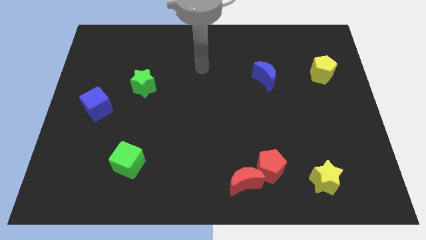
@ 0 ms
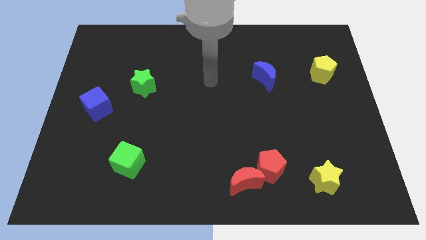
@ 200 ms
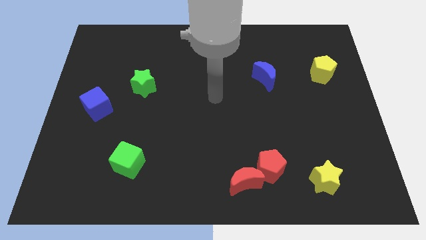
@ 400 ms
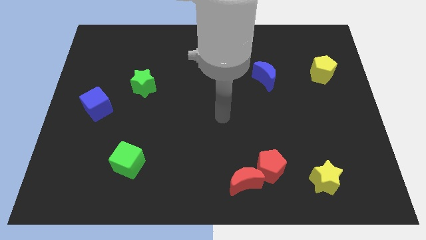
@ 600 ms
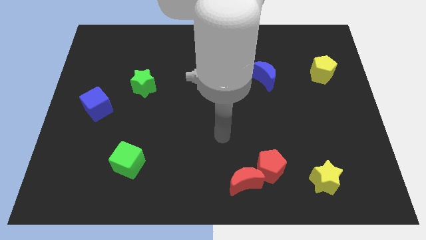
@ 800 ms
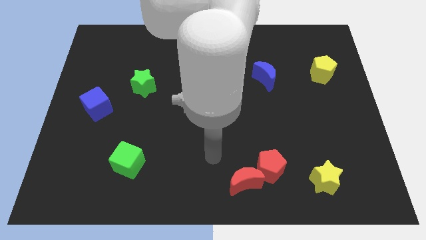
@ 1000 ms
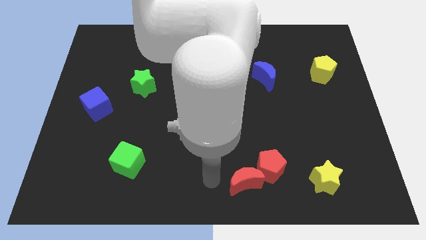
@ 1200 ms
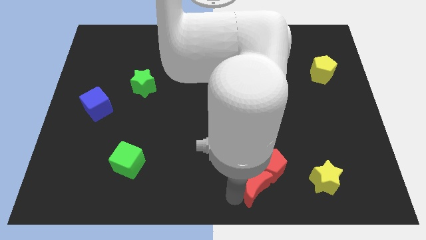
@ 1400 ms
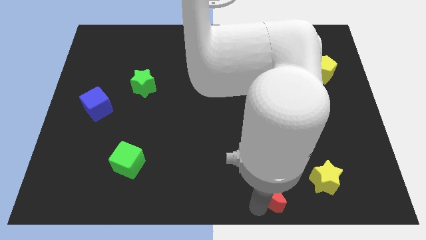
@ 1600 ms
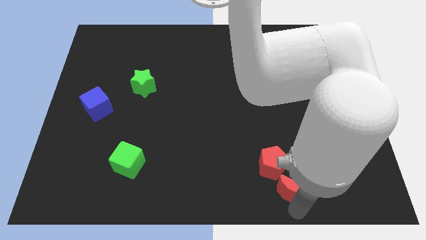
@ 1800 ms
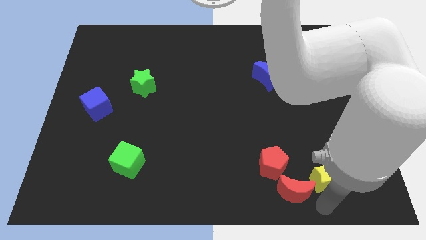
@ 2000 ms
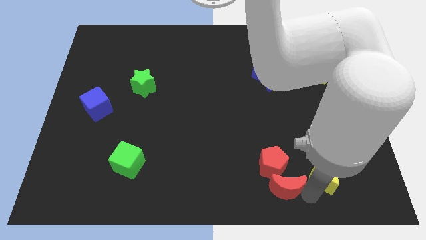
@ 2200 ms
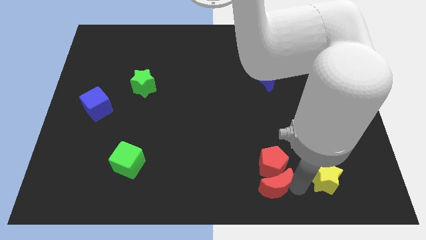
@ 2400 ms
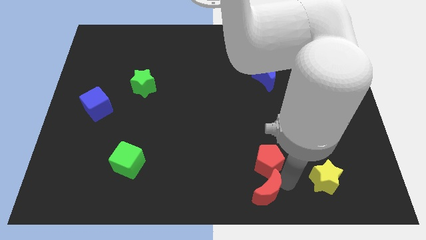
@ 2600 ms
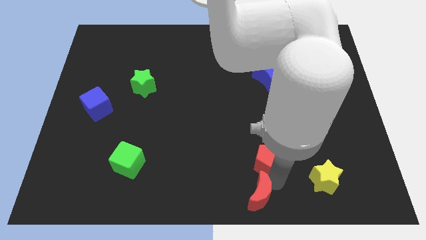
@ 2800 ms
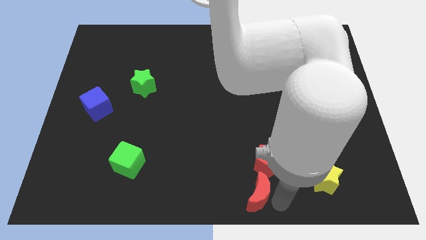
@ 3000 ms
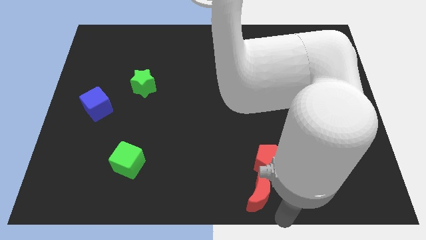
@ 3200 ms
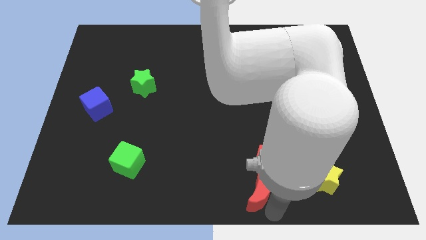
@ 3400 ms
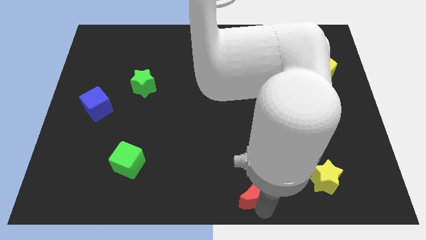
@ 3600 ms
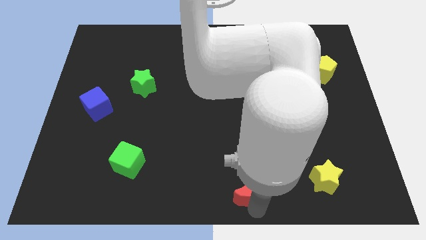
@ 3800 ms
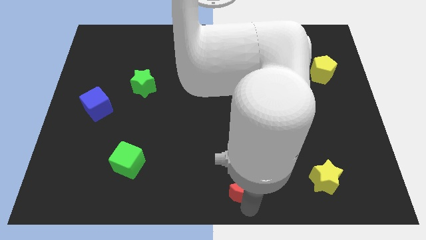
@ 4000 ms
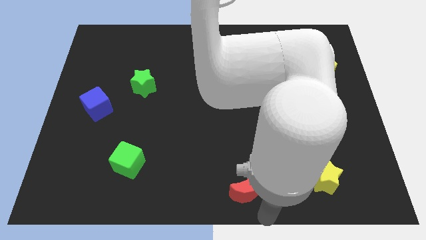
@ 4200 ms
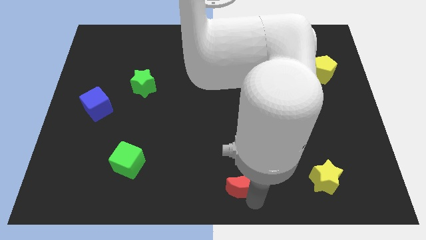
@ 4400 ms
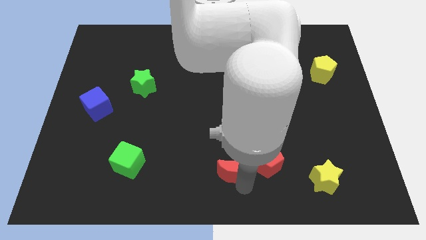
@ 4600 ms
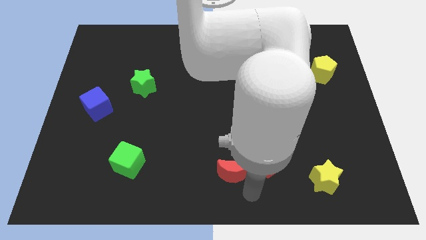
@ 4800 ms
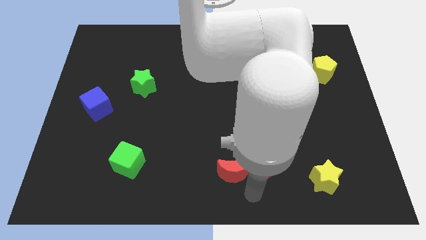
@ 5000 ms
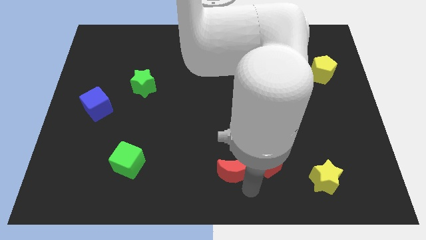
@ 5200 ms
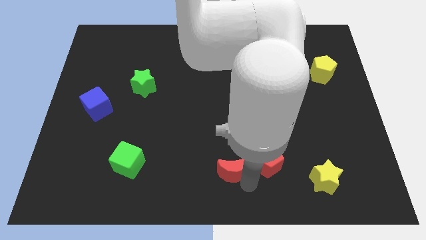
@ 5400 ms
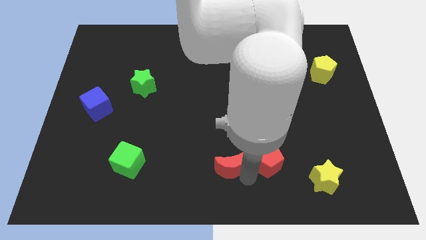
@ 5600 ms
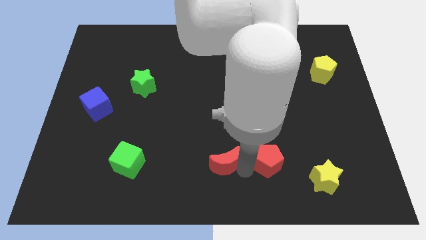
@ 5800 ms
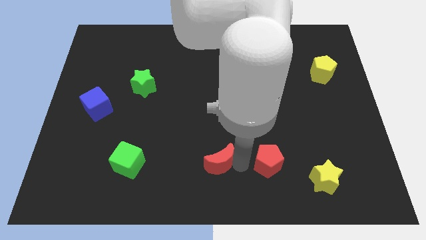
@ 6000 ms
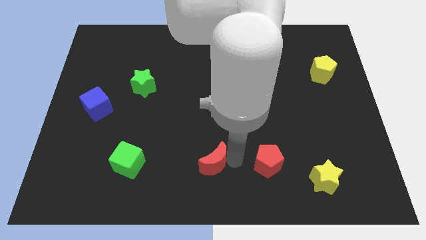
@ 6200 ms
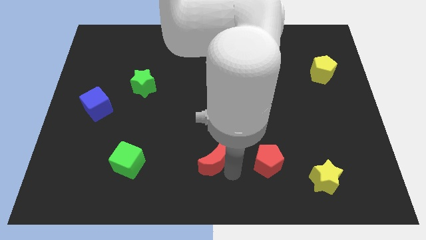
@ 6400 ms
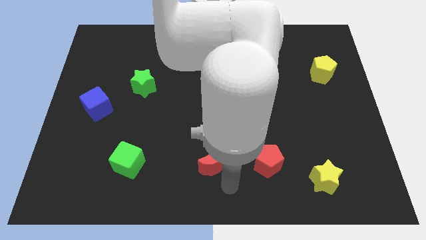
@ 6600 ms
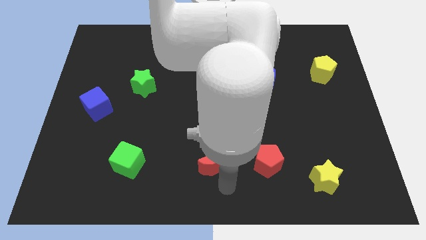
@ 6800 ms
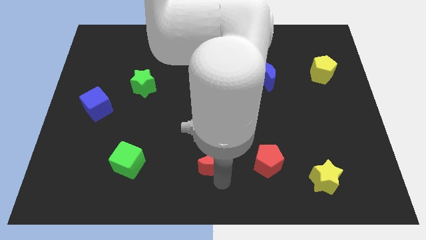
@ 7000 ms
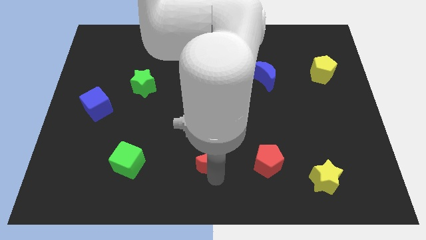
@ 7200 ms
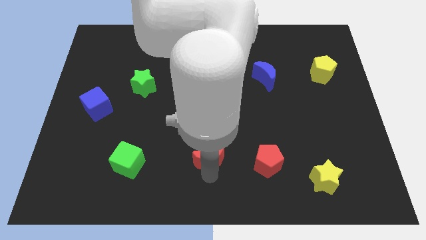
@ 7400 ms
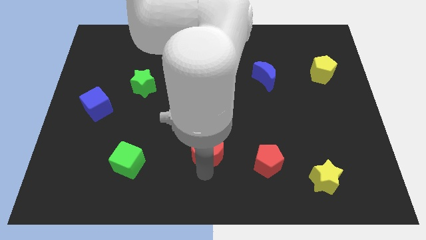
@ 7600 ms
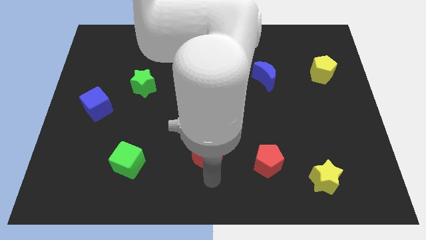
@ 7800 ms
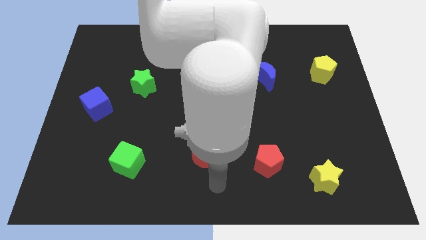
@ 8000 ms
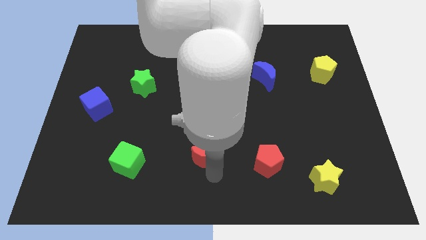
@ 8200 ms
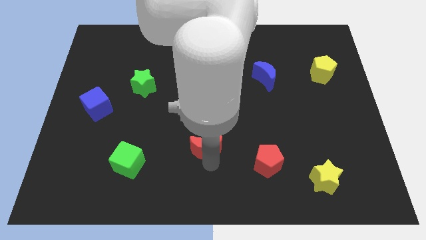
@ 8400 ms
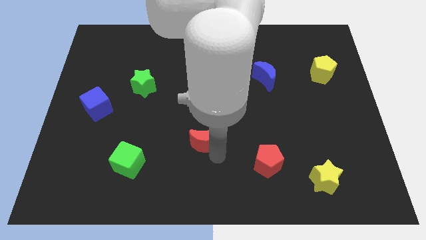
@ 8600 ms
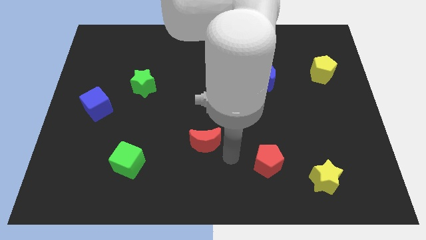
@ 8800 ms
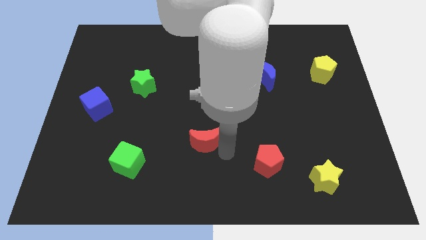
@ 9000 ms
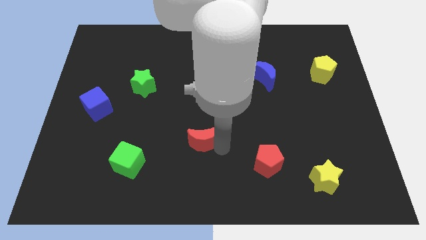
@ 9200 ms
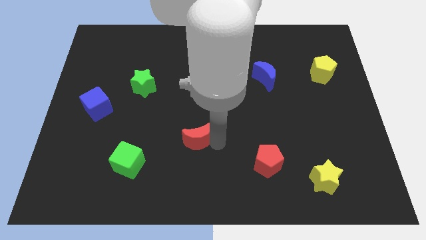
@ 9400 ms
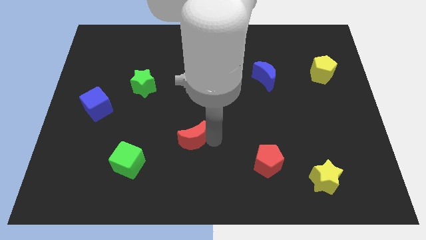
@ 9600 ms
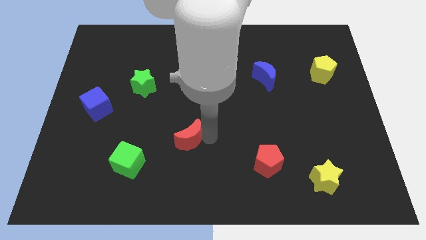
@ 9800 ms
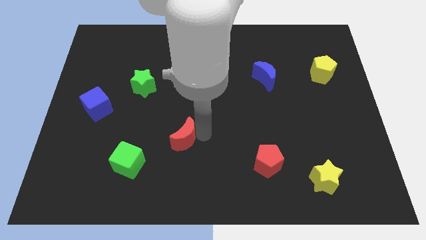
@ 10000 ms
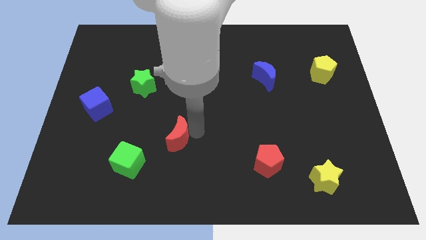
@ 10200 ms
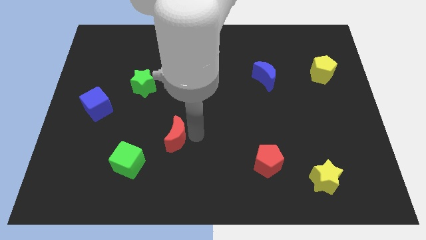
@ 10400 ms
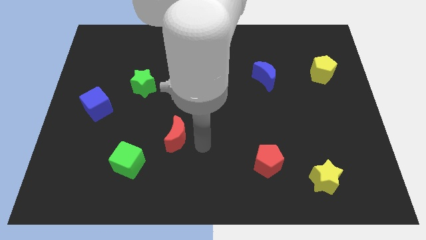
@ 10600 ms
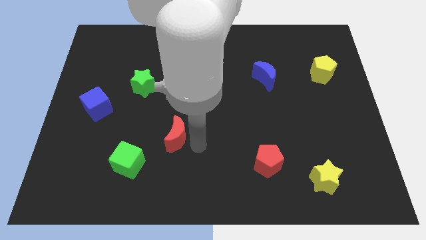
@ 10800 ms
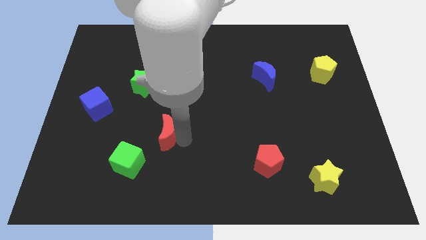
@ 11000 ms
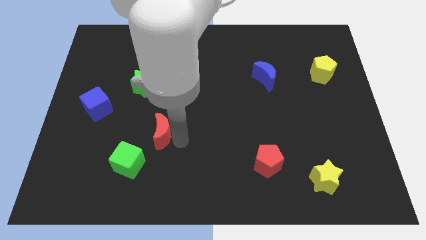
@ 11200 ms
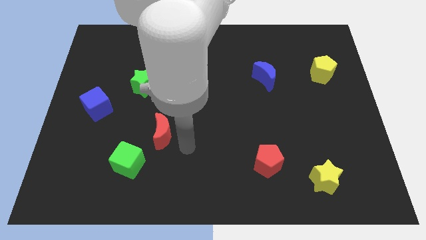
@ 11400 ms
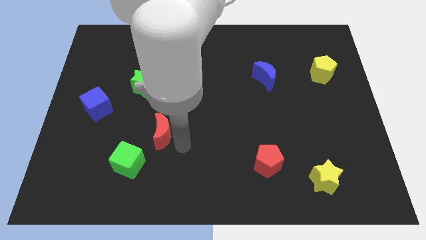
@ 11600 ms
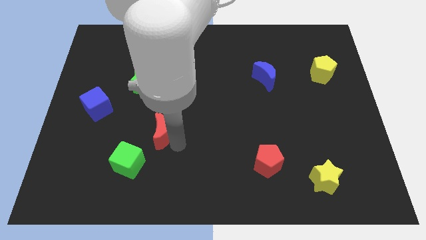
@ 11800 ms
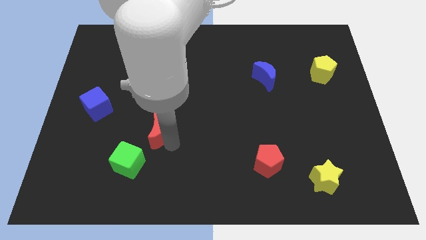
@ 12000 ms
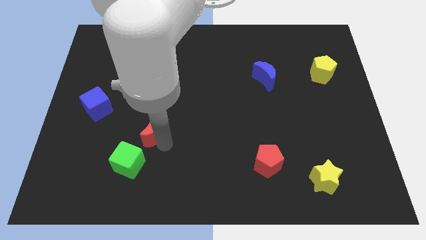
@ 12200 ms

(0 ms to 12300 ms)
put the red moon to the bottom side of the green star

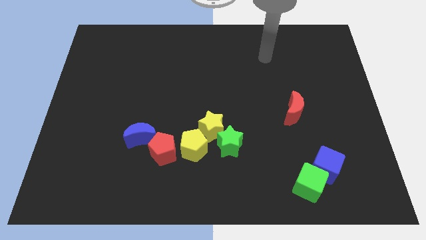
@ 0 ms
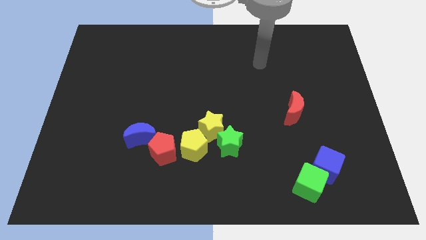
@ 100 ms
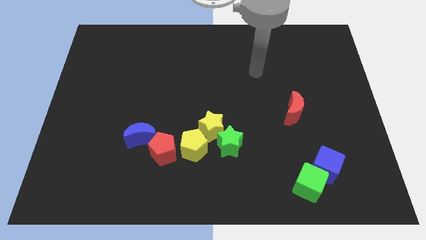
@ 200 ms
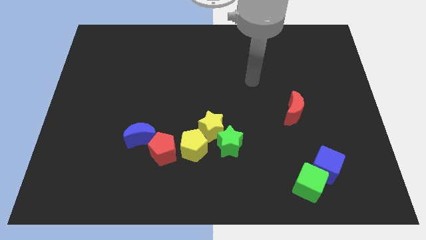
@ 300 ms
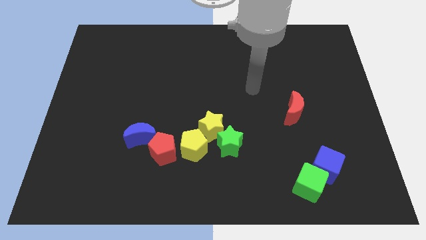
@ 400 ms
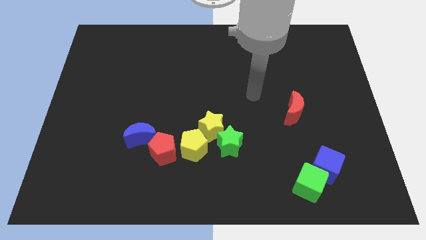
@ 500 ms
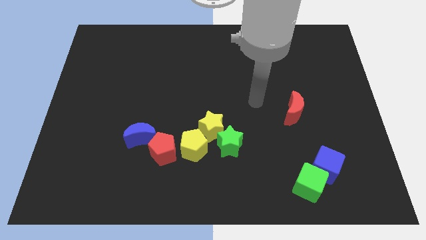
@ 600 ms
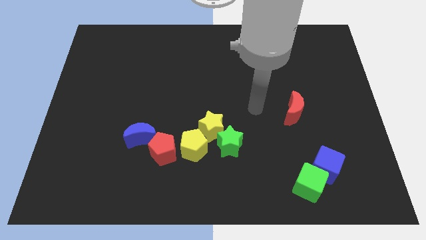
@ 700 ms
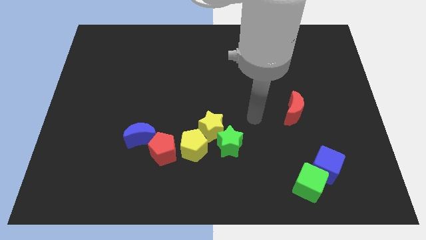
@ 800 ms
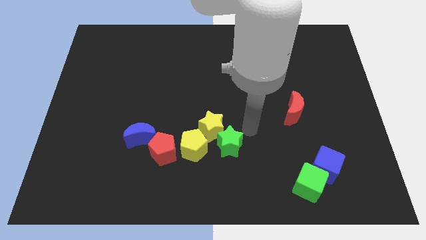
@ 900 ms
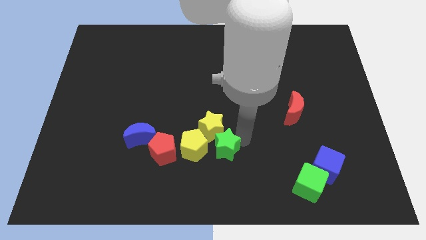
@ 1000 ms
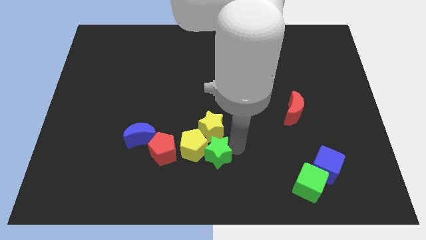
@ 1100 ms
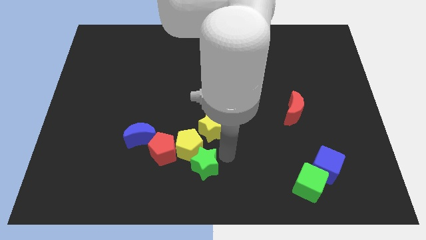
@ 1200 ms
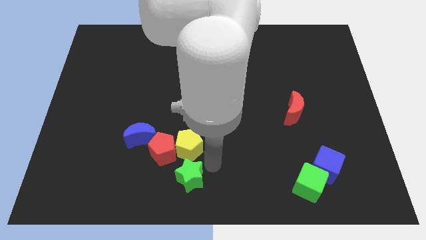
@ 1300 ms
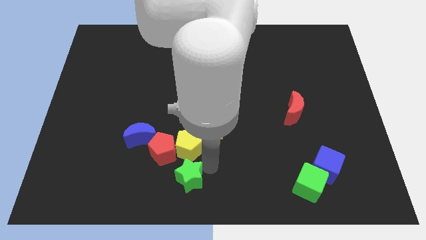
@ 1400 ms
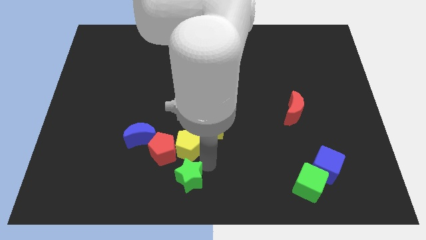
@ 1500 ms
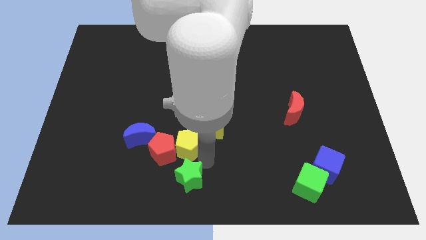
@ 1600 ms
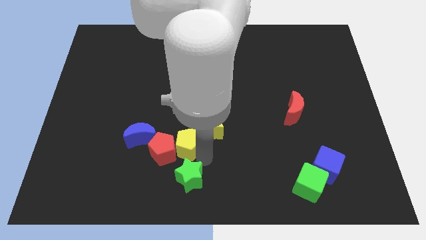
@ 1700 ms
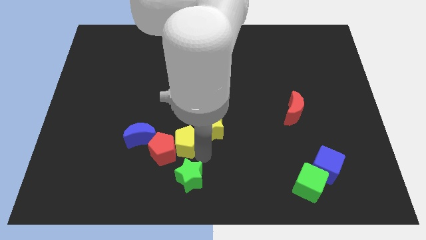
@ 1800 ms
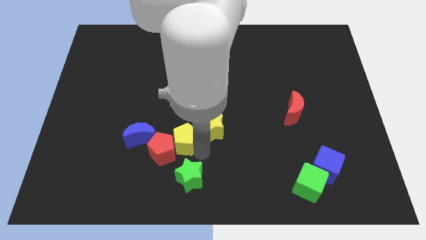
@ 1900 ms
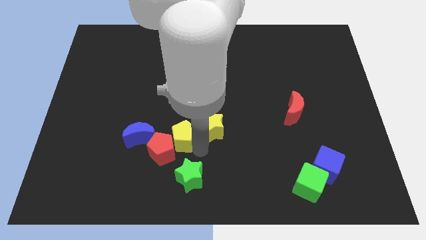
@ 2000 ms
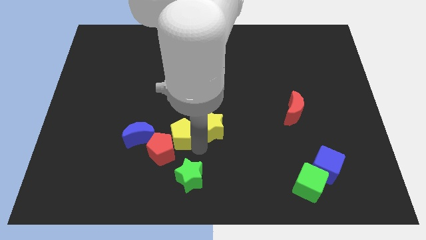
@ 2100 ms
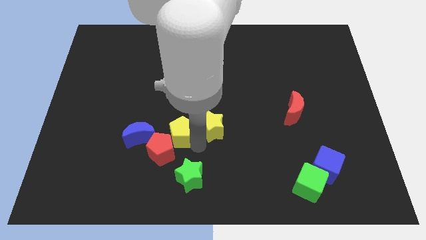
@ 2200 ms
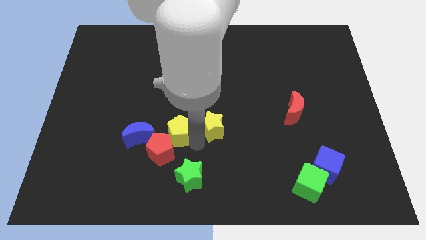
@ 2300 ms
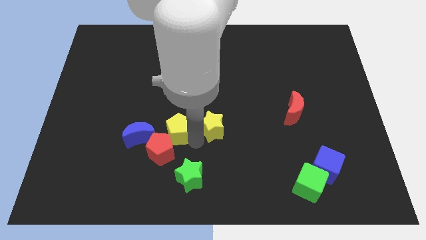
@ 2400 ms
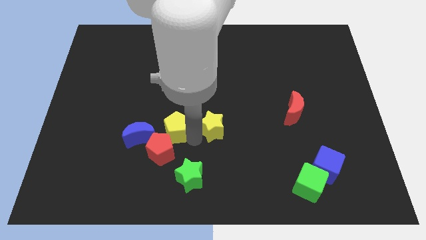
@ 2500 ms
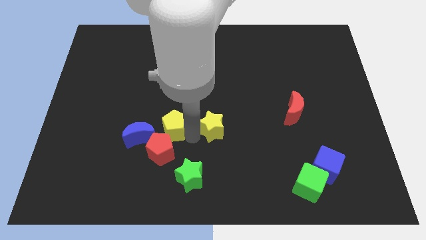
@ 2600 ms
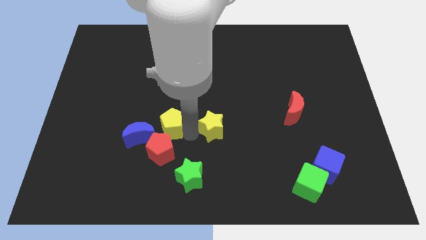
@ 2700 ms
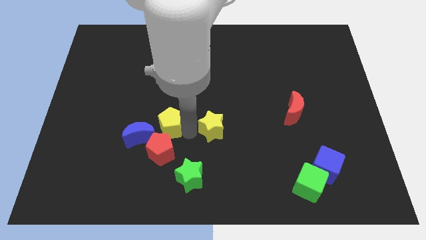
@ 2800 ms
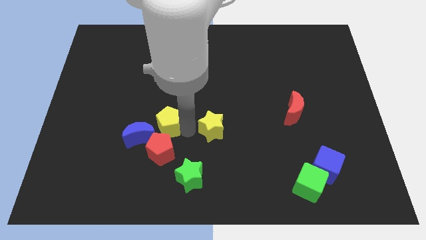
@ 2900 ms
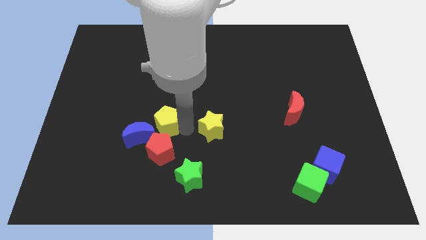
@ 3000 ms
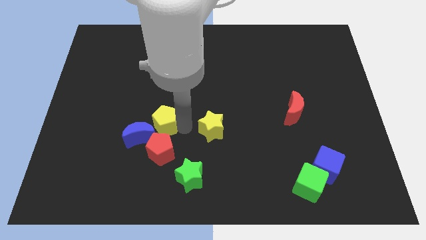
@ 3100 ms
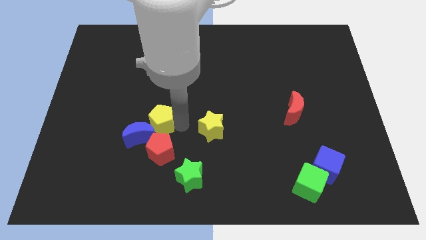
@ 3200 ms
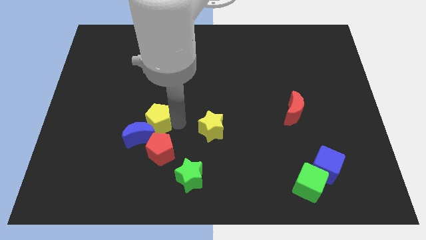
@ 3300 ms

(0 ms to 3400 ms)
slide the yellow pentagon to the top left of the red pentagon
